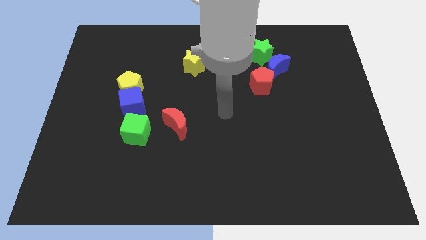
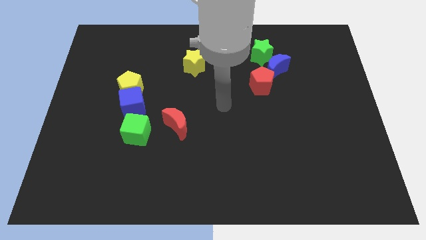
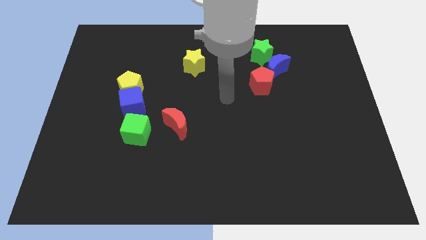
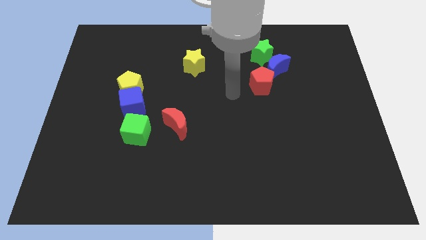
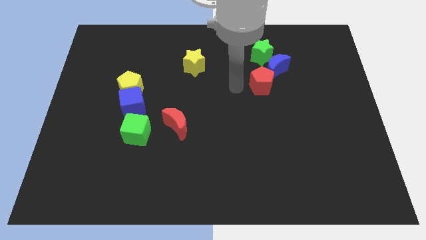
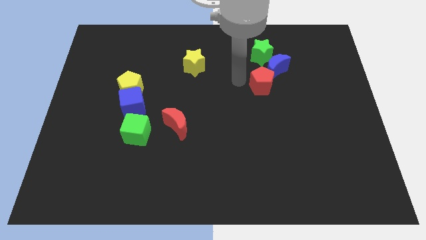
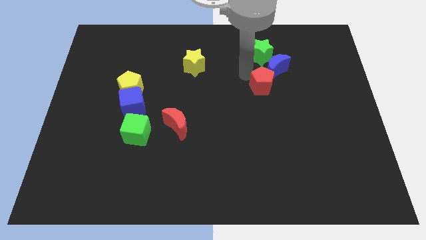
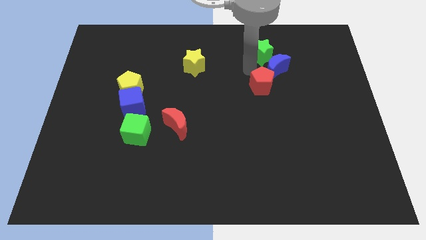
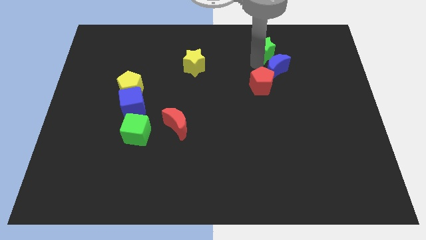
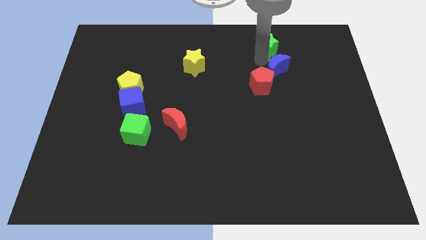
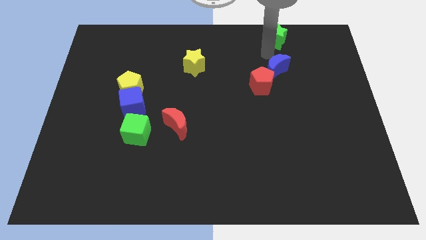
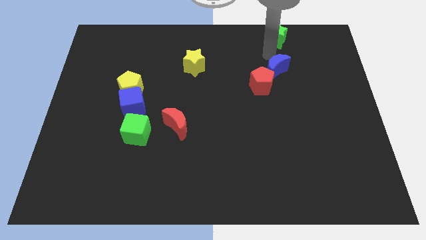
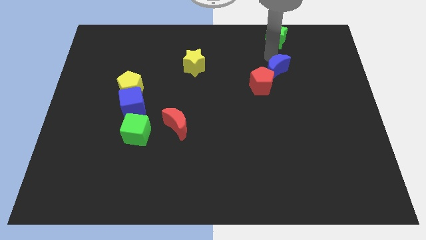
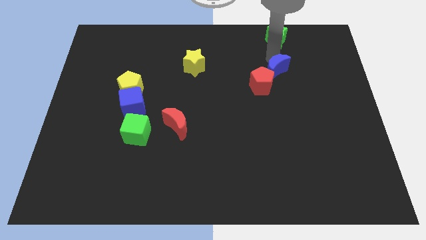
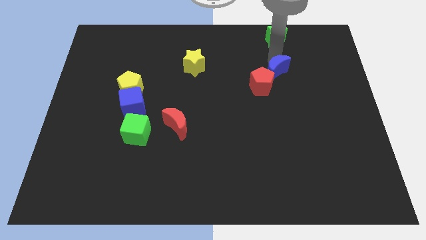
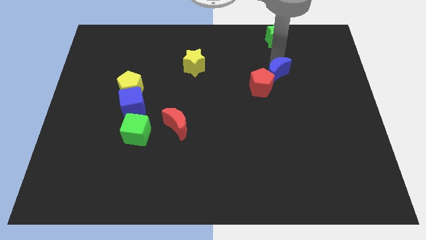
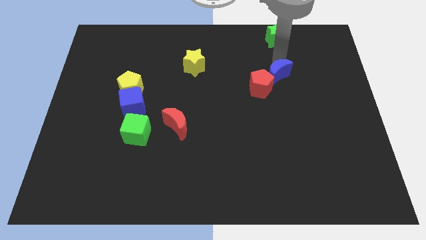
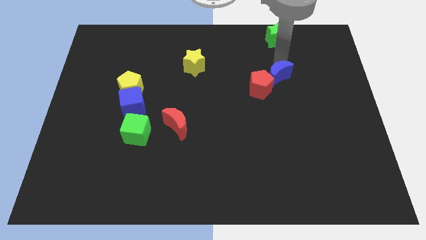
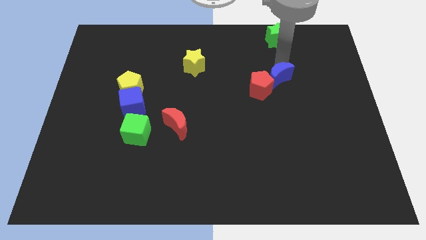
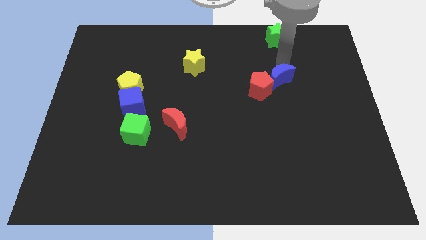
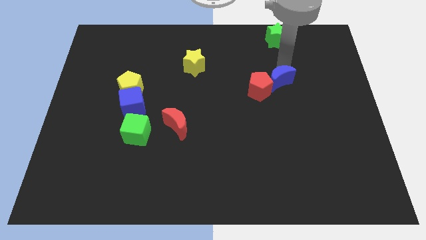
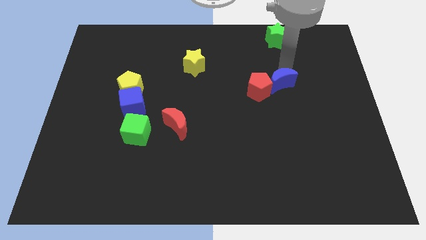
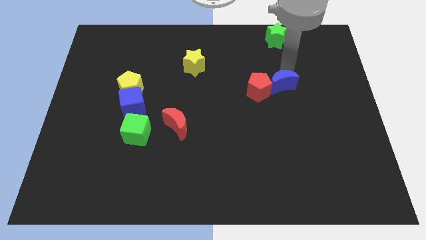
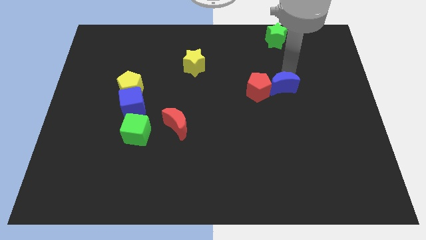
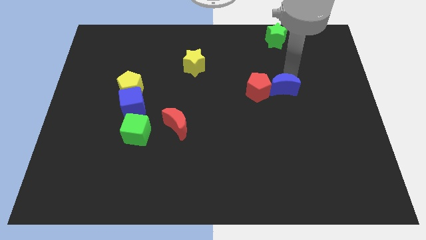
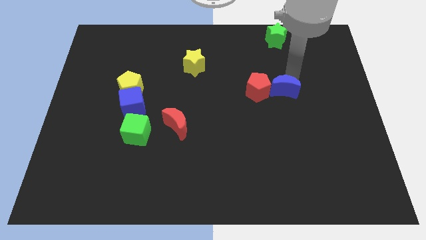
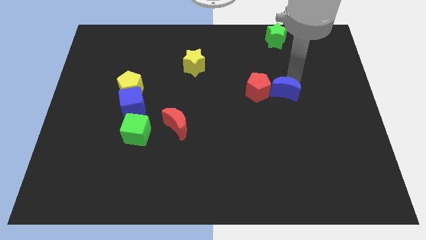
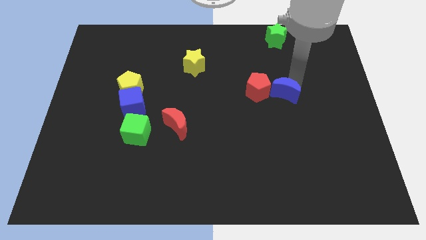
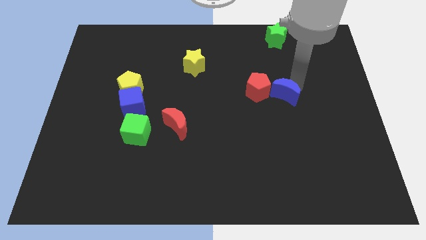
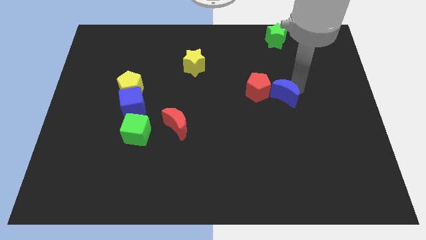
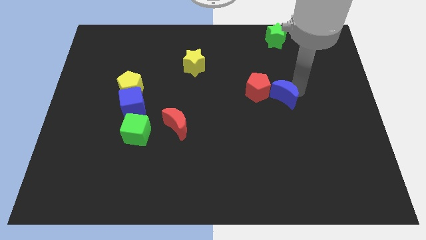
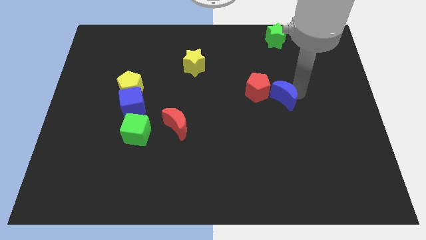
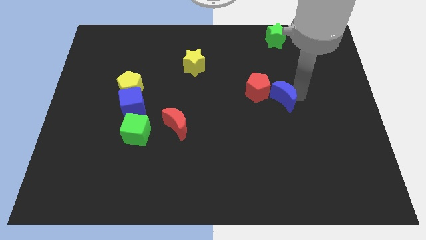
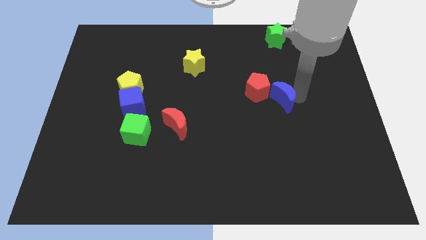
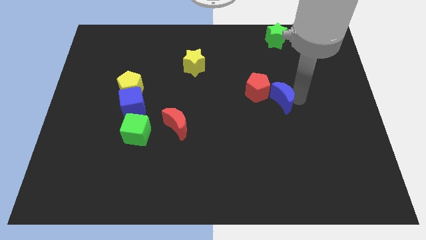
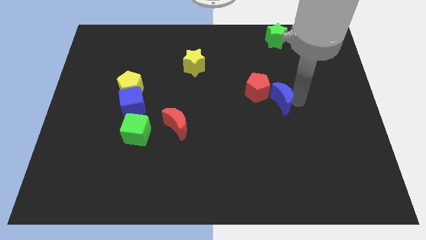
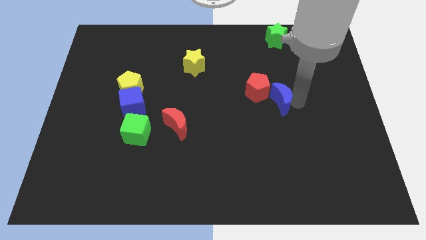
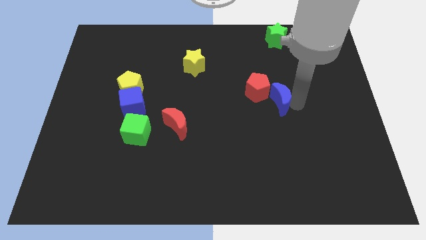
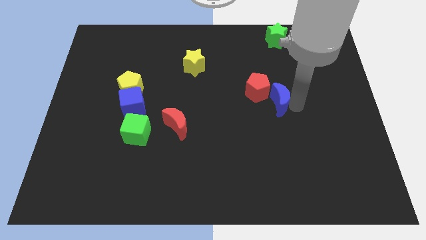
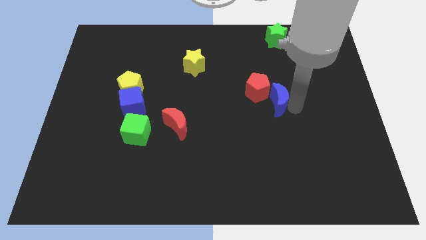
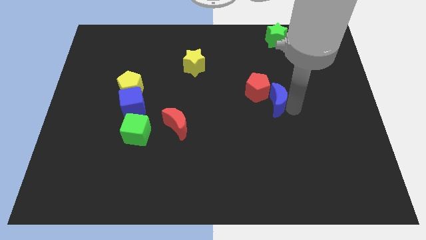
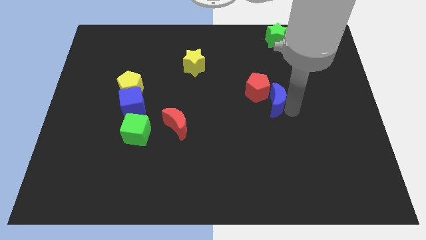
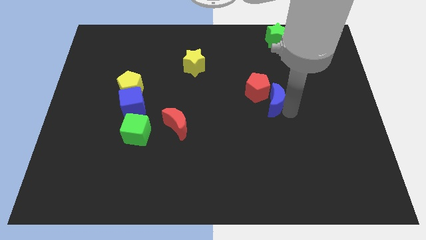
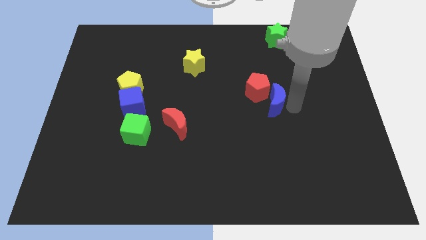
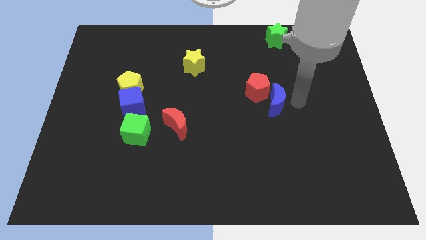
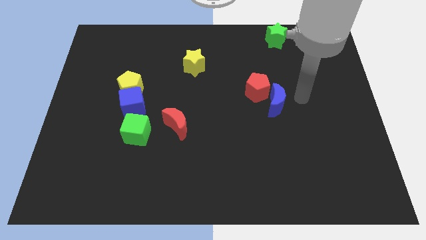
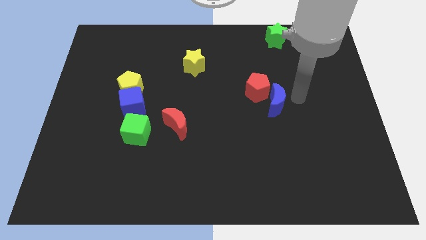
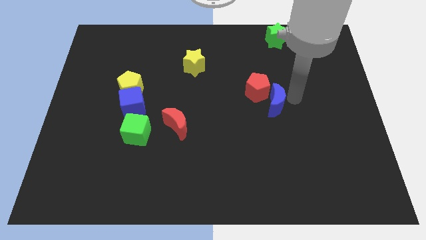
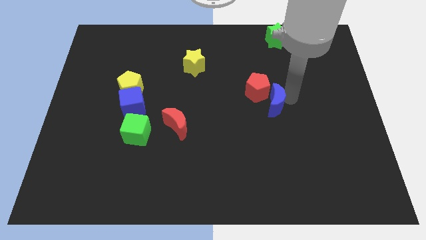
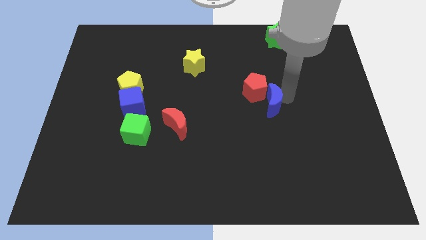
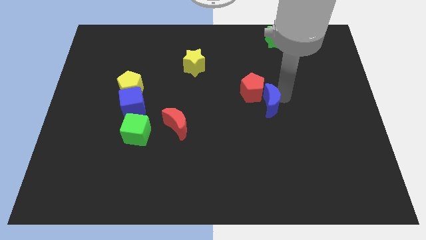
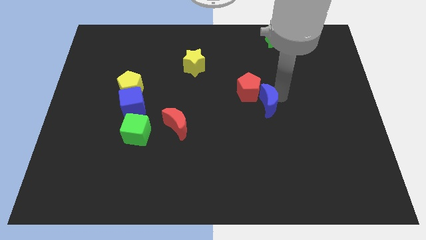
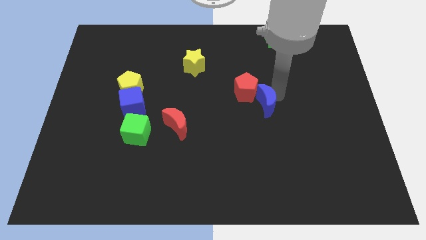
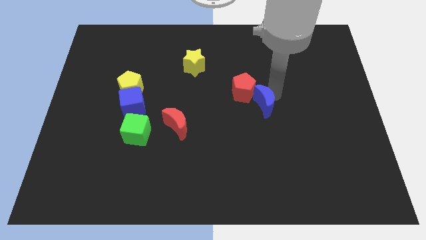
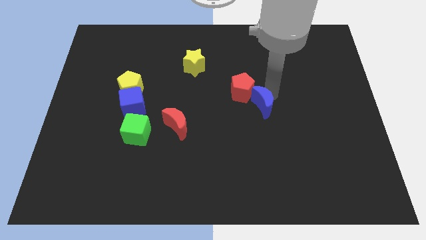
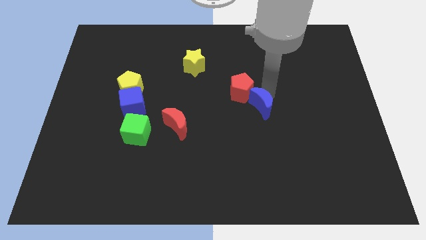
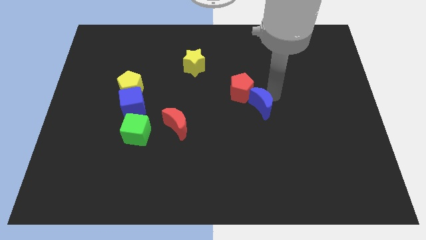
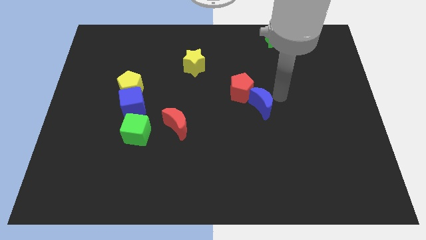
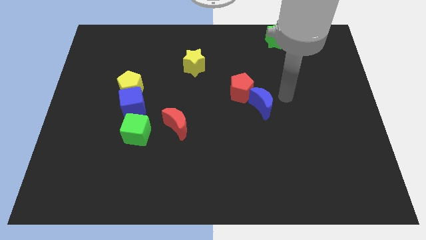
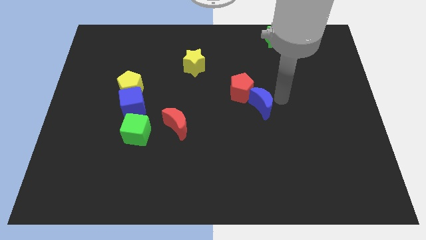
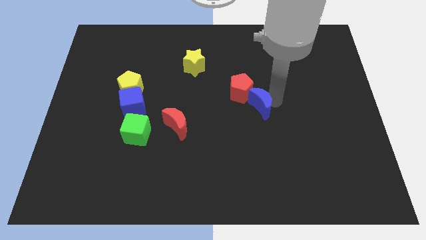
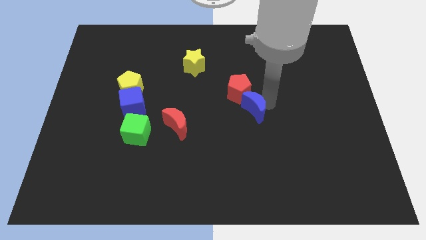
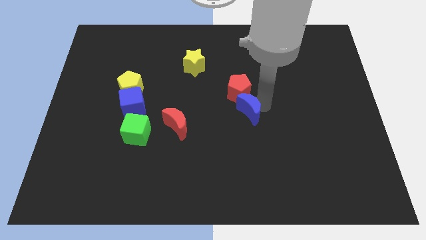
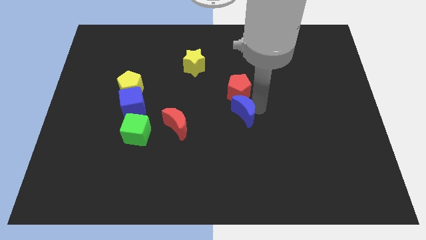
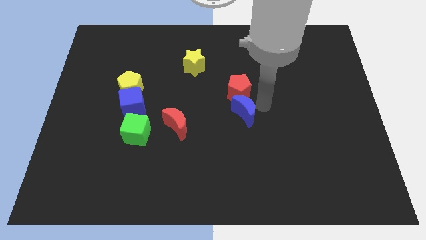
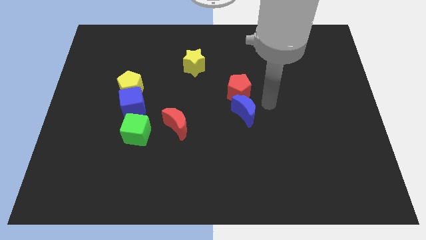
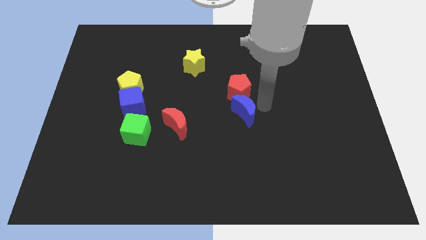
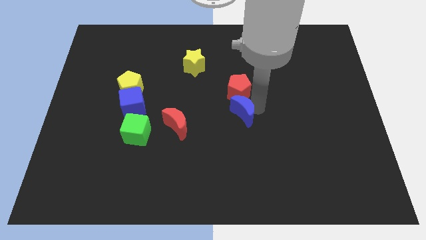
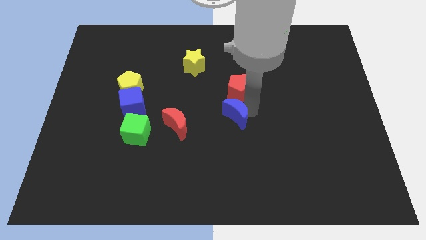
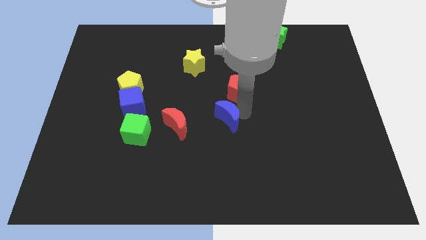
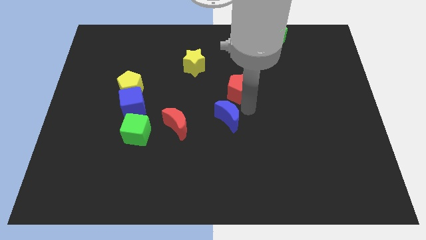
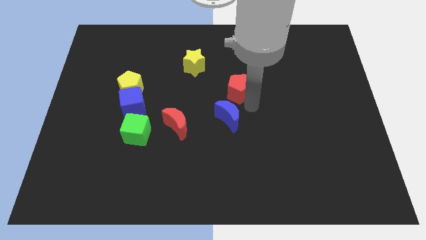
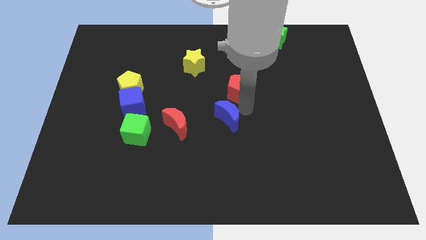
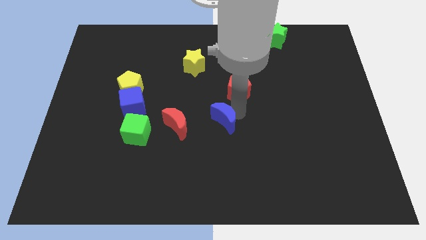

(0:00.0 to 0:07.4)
slide the blue moon diagonally downwards and left

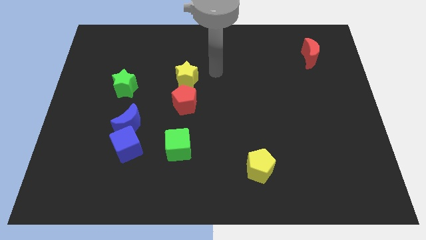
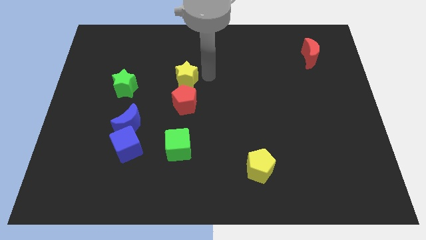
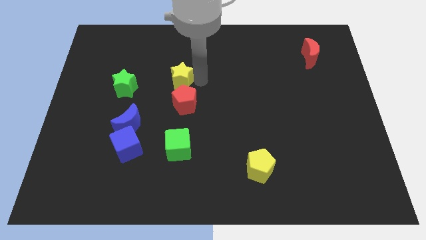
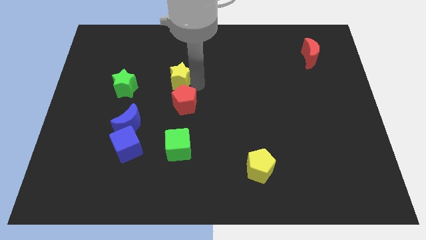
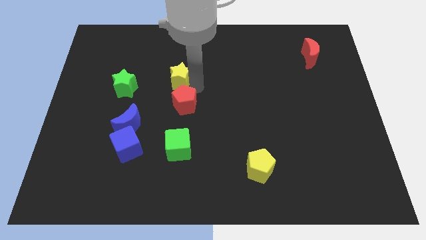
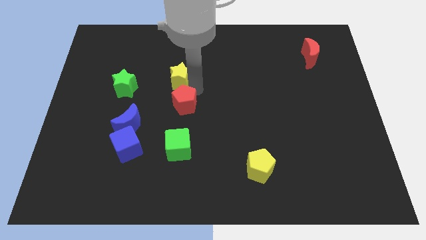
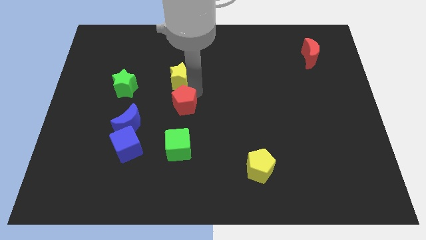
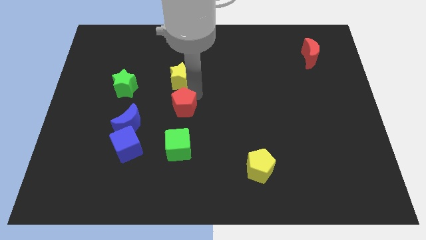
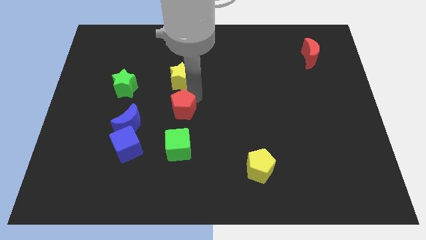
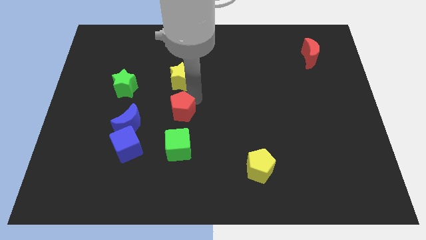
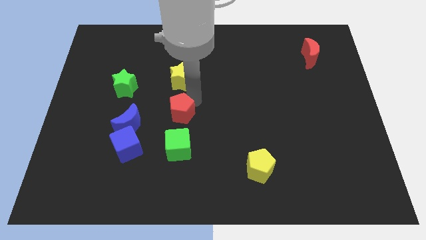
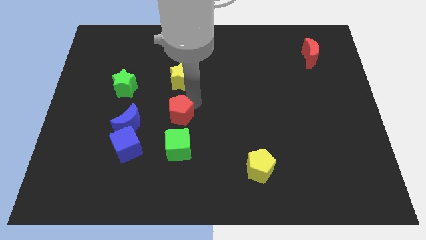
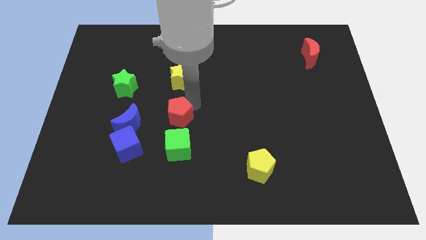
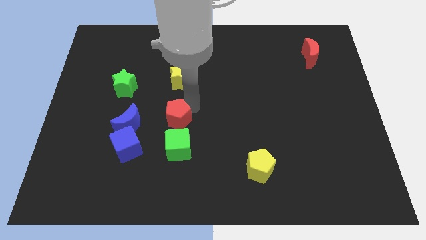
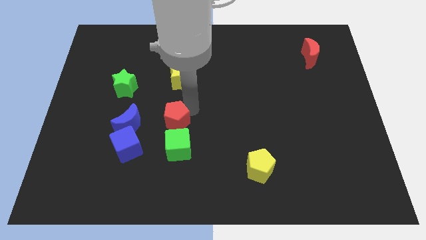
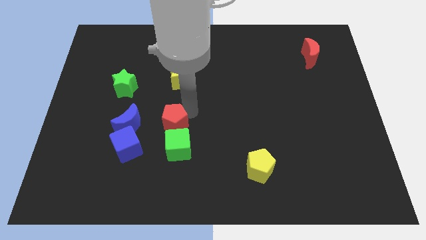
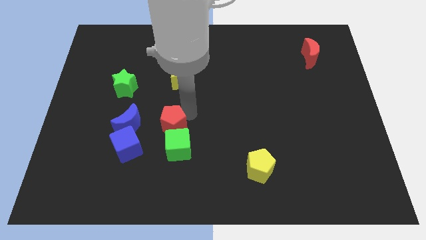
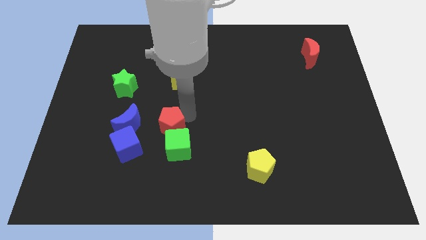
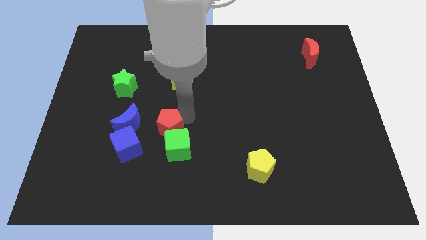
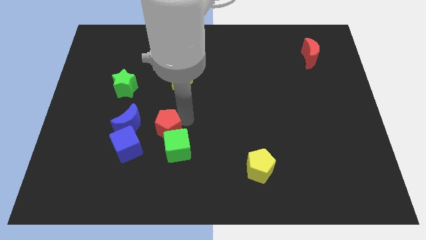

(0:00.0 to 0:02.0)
slide the red pentagon downwards a little bit
